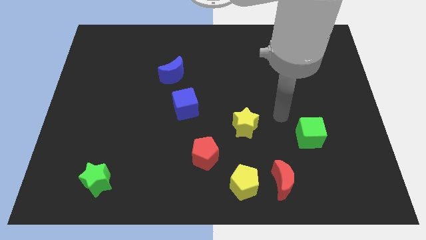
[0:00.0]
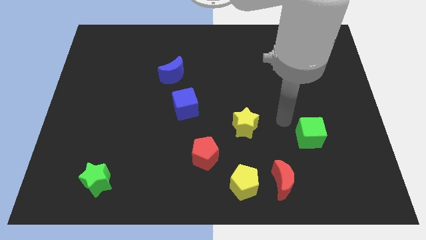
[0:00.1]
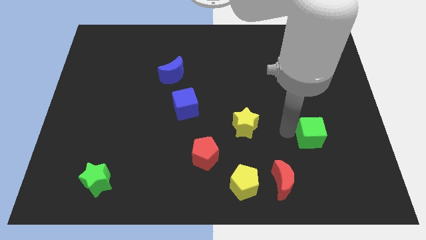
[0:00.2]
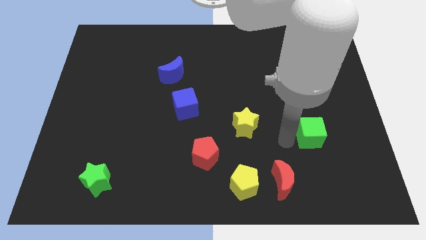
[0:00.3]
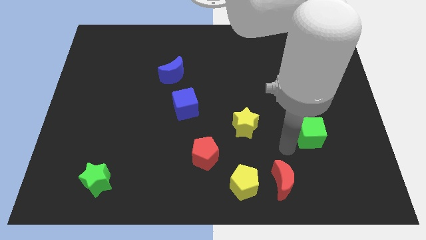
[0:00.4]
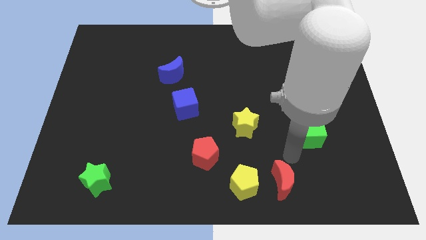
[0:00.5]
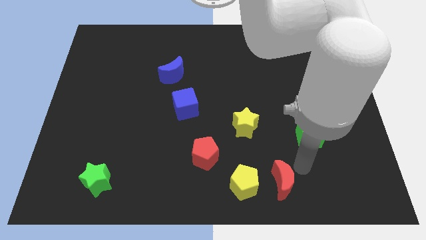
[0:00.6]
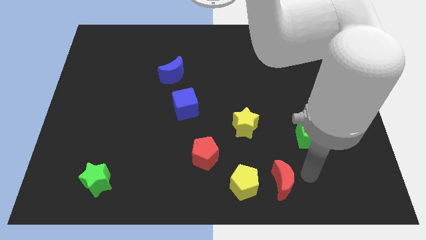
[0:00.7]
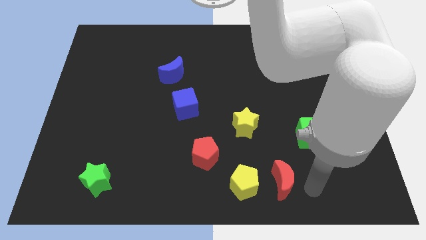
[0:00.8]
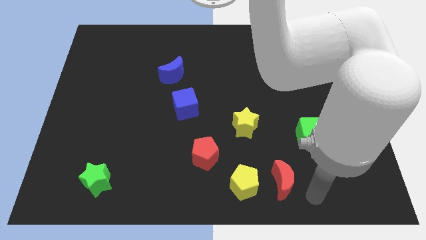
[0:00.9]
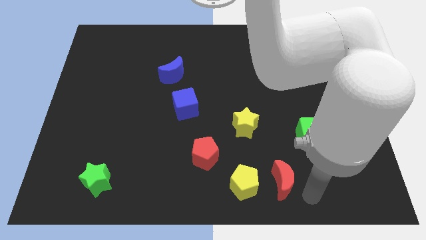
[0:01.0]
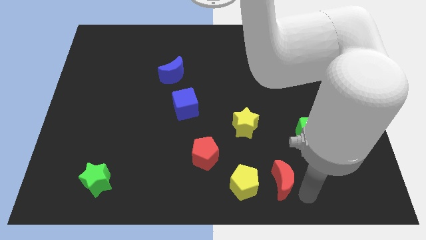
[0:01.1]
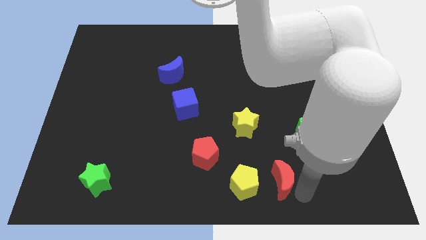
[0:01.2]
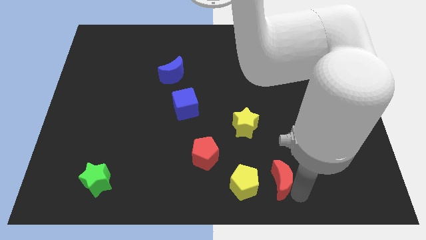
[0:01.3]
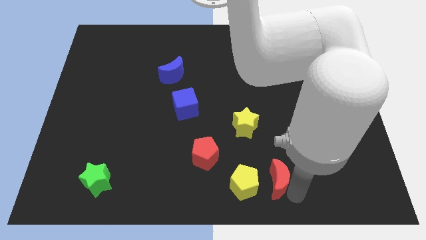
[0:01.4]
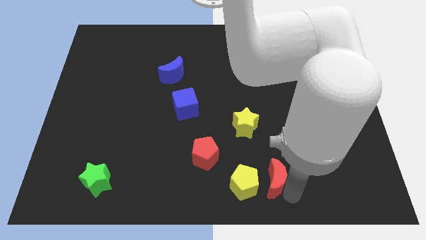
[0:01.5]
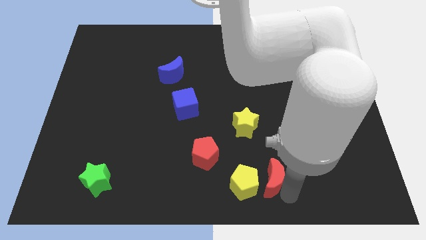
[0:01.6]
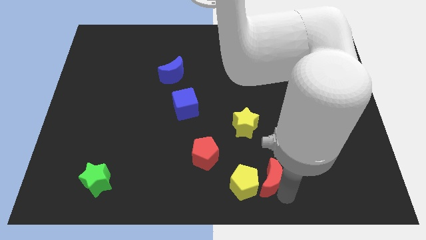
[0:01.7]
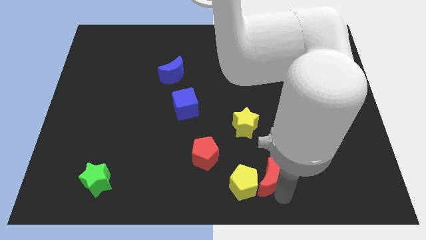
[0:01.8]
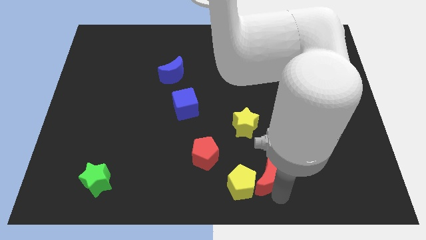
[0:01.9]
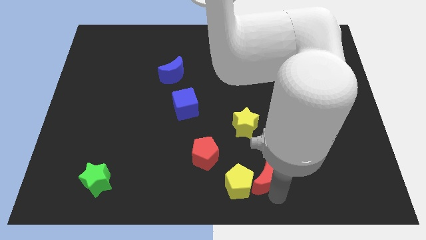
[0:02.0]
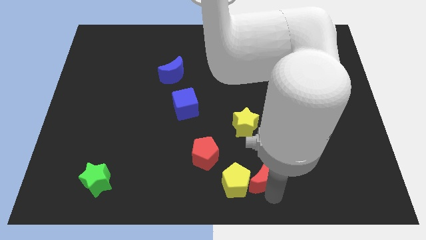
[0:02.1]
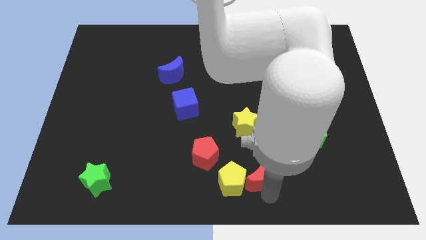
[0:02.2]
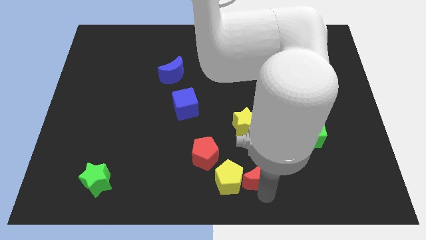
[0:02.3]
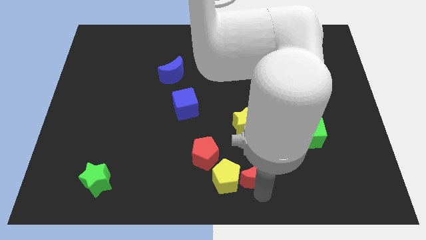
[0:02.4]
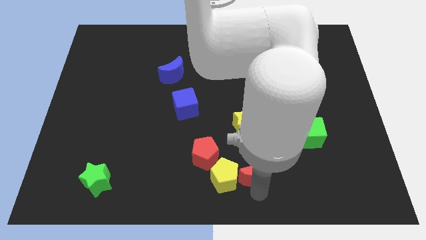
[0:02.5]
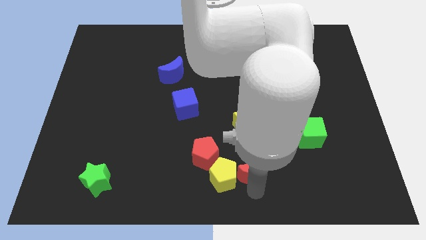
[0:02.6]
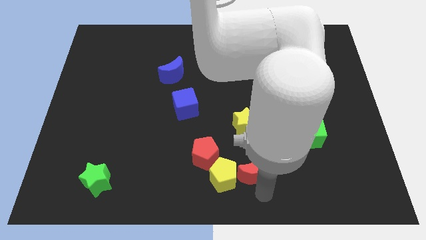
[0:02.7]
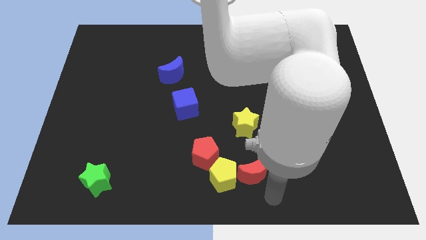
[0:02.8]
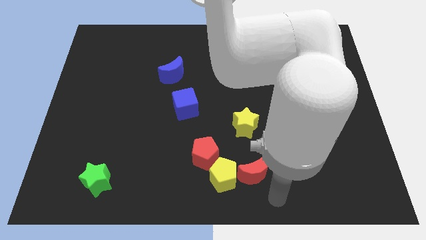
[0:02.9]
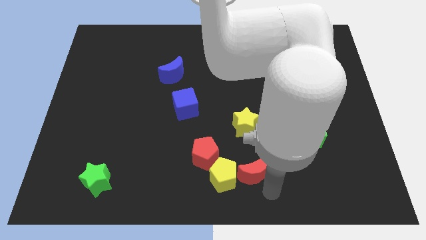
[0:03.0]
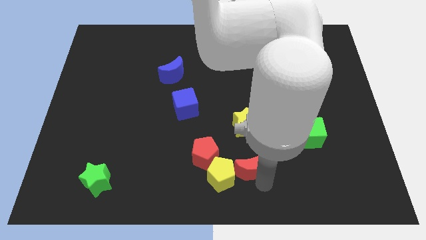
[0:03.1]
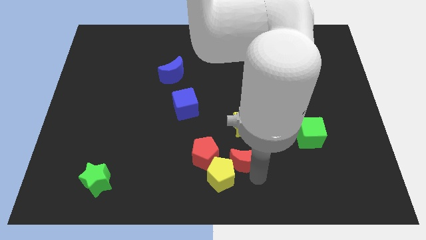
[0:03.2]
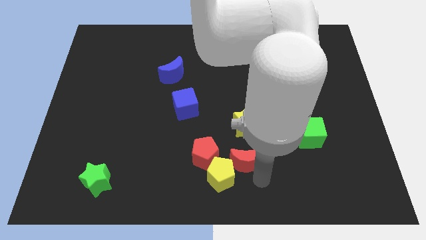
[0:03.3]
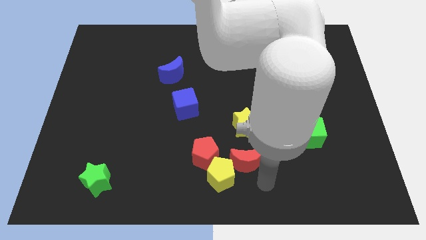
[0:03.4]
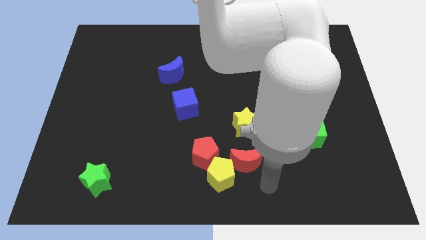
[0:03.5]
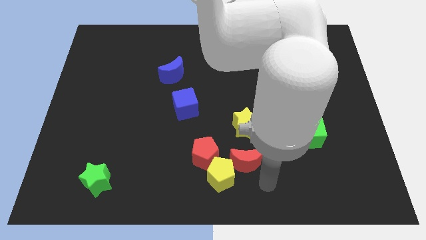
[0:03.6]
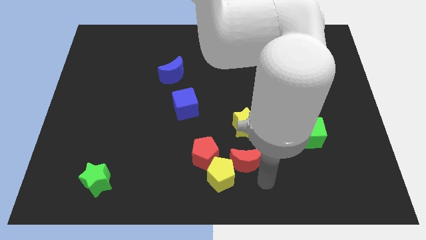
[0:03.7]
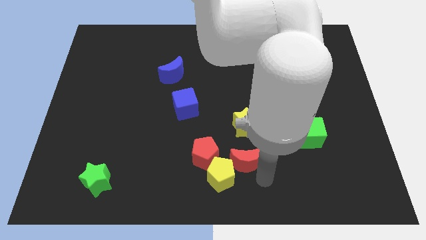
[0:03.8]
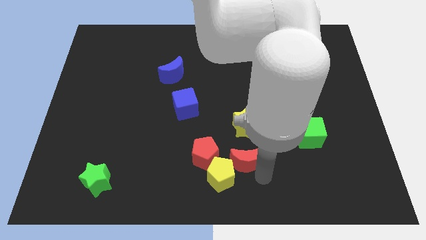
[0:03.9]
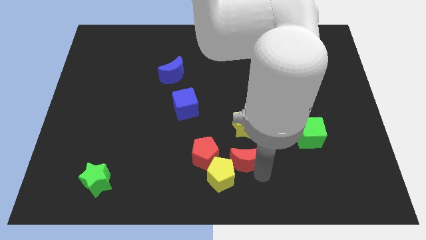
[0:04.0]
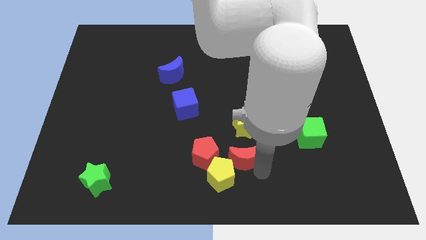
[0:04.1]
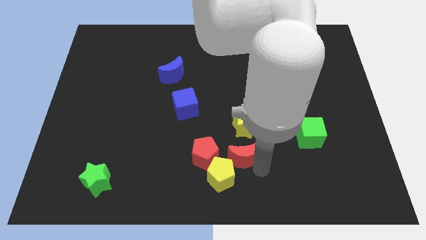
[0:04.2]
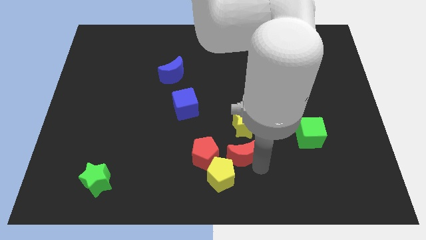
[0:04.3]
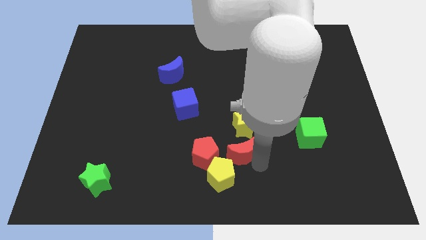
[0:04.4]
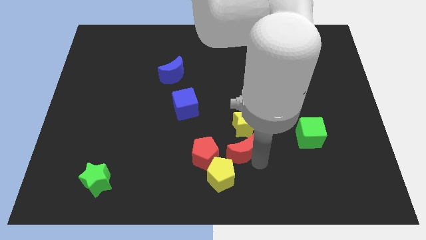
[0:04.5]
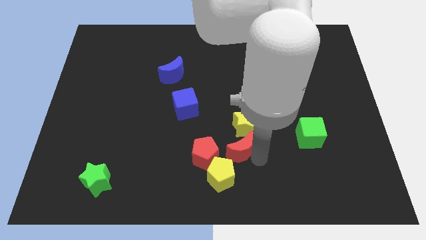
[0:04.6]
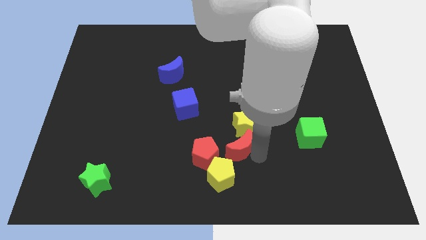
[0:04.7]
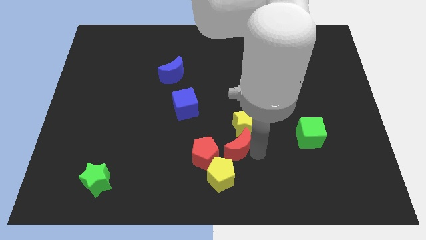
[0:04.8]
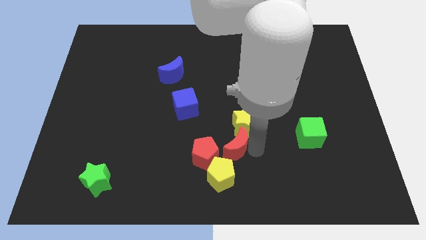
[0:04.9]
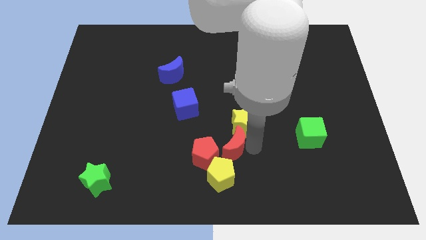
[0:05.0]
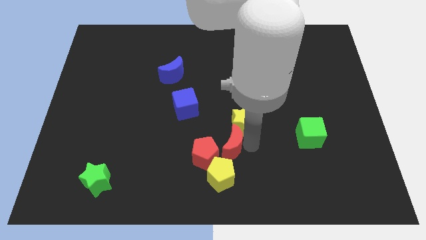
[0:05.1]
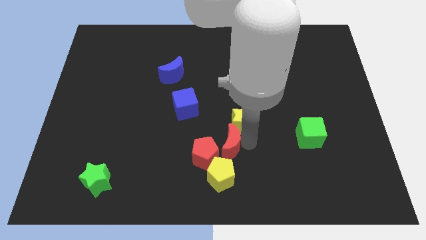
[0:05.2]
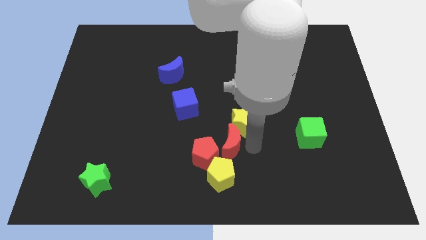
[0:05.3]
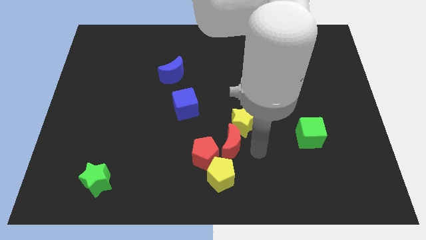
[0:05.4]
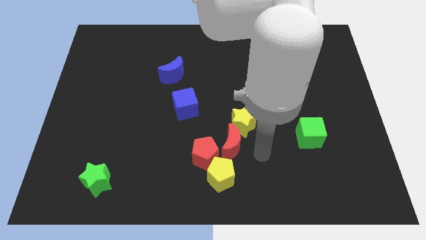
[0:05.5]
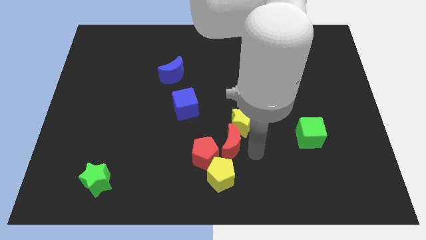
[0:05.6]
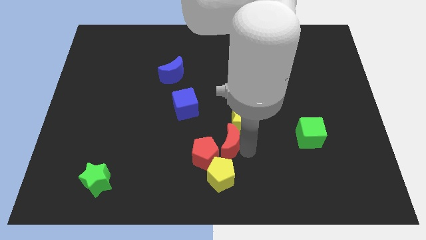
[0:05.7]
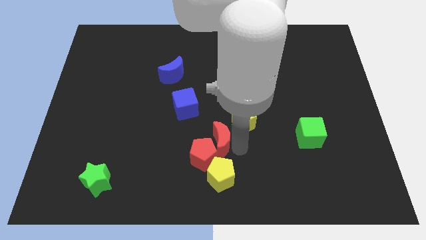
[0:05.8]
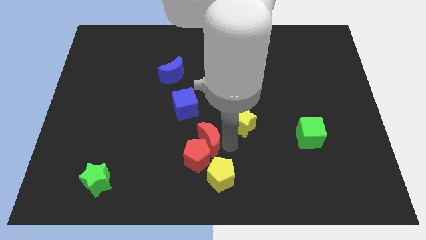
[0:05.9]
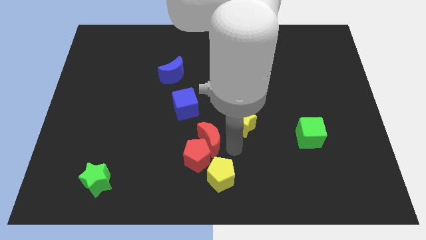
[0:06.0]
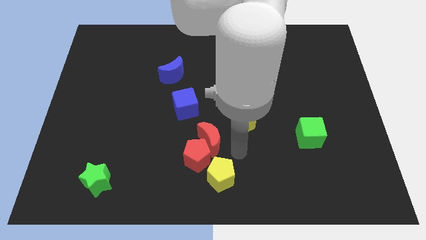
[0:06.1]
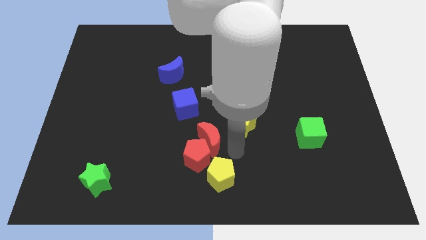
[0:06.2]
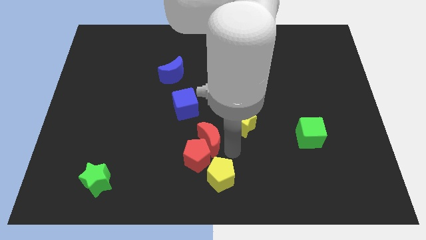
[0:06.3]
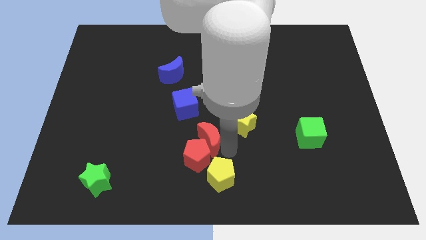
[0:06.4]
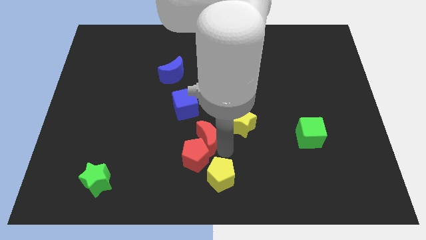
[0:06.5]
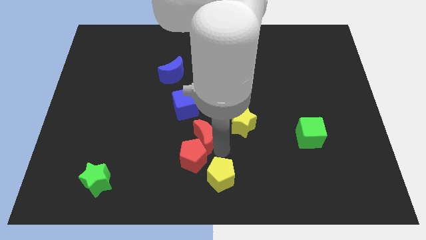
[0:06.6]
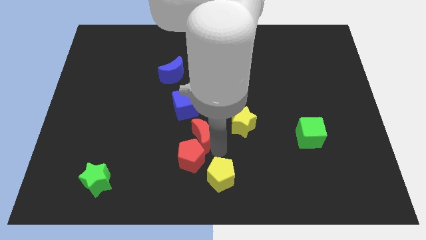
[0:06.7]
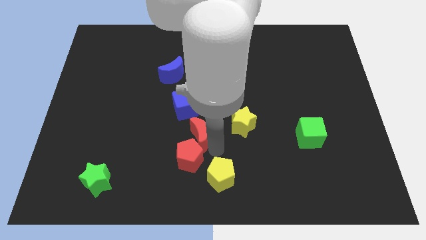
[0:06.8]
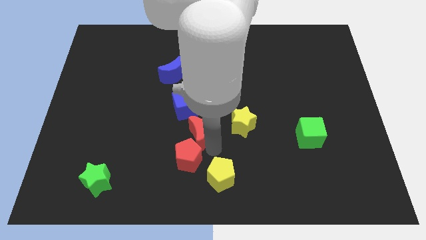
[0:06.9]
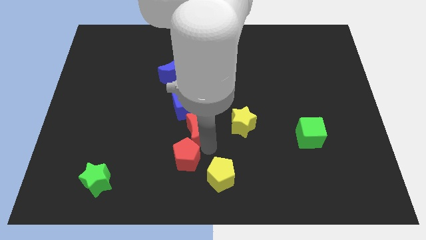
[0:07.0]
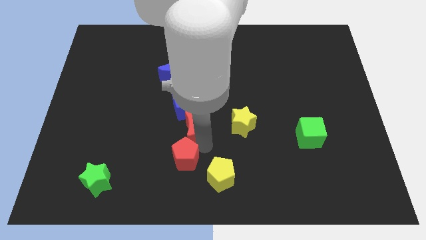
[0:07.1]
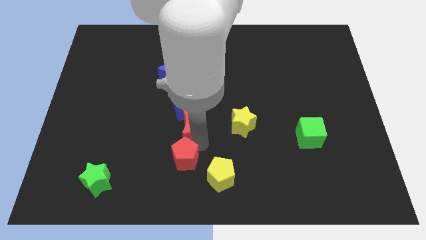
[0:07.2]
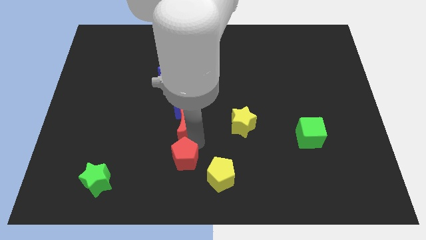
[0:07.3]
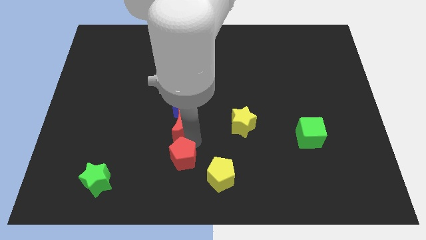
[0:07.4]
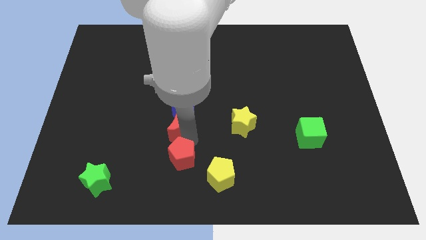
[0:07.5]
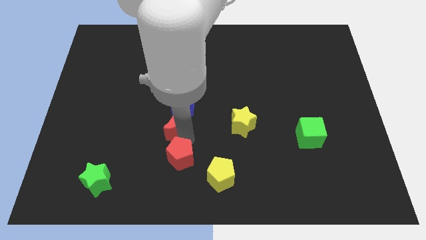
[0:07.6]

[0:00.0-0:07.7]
push the red moon to the bottom side of the blue moon

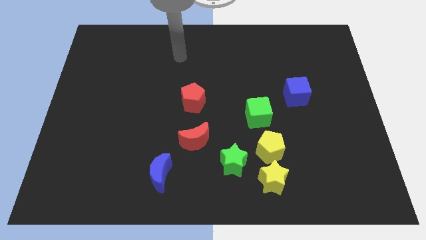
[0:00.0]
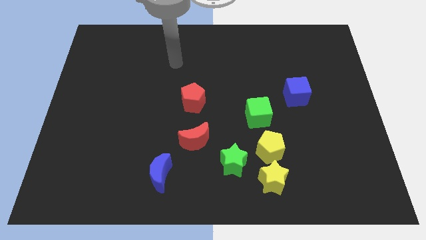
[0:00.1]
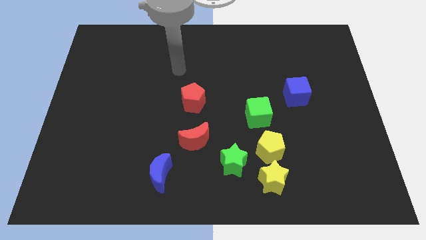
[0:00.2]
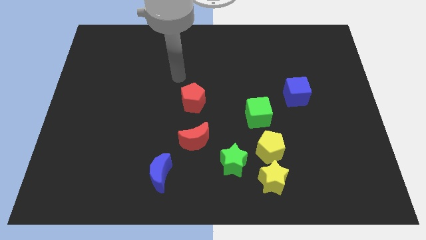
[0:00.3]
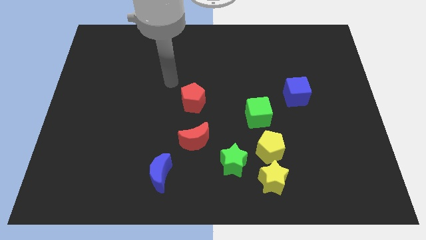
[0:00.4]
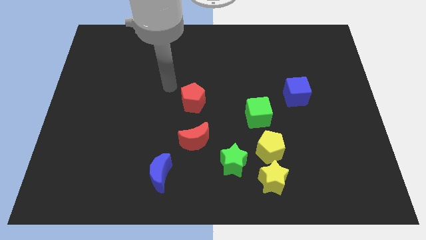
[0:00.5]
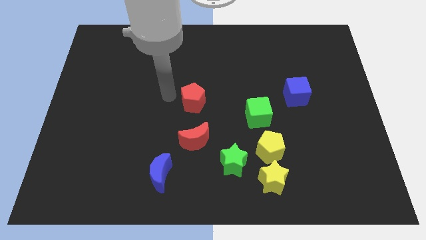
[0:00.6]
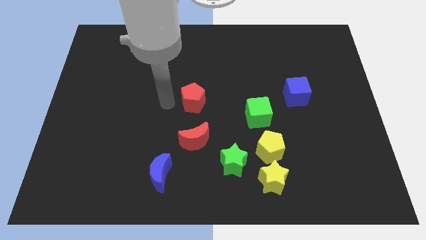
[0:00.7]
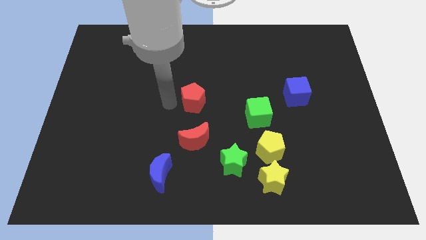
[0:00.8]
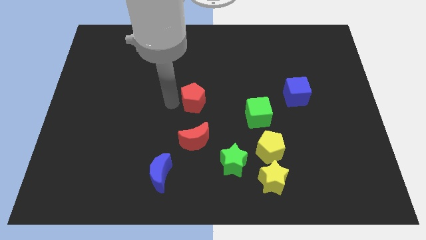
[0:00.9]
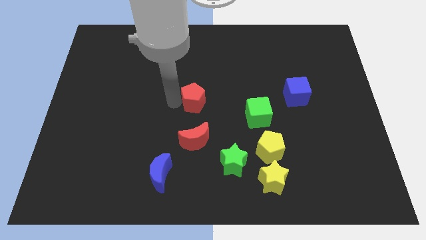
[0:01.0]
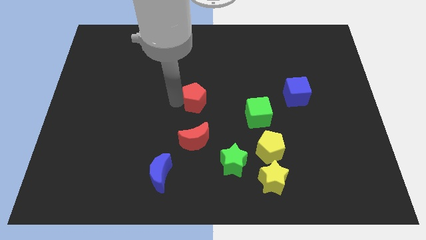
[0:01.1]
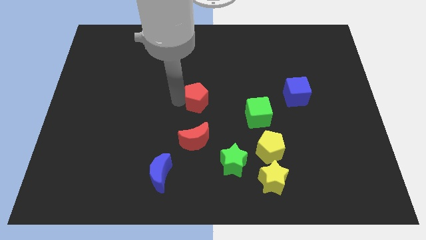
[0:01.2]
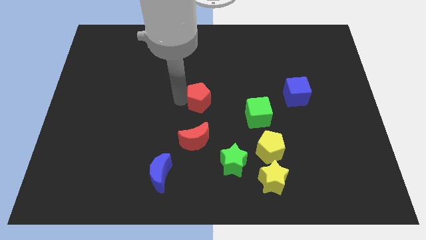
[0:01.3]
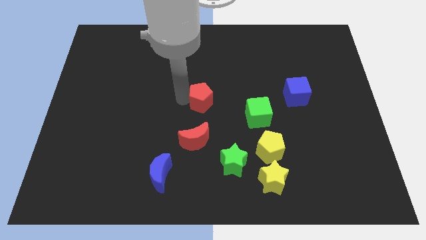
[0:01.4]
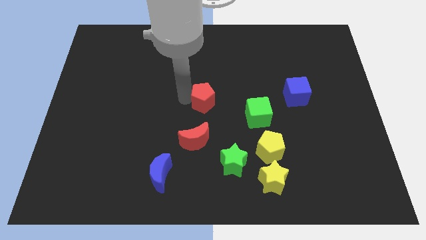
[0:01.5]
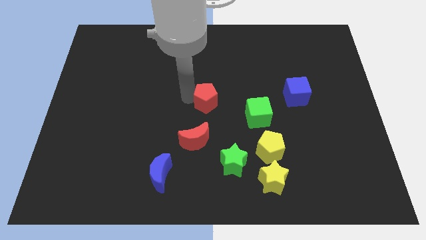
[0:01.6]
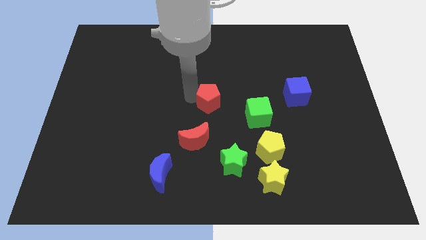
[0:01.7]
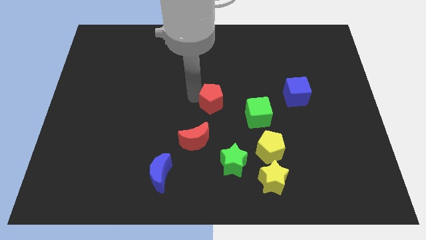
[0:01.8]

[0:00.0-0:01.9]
put the red pentagon to the top left of the green cube
